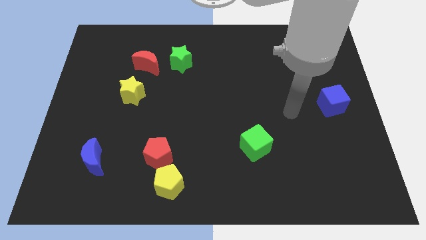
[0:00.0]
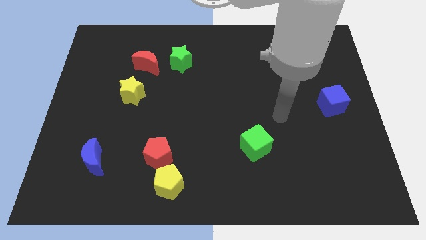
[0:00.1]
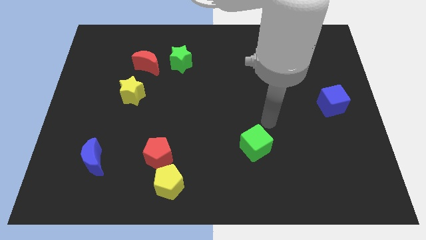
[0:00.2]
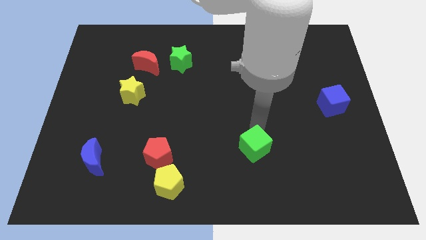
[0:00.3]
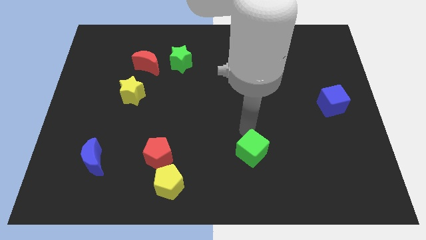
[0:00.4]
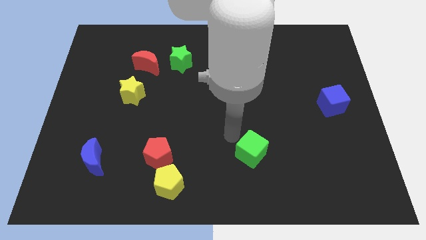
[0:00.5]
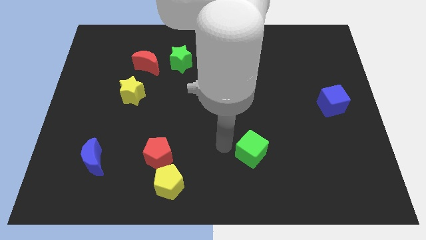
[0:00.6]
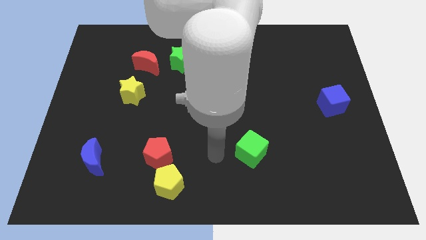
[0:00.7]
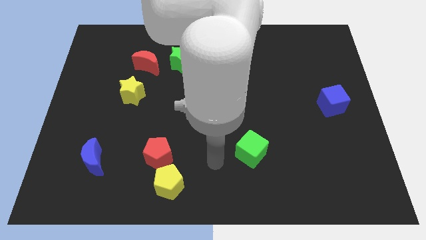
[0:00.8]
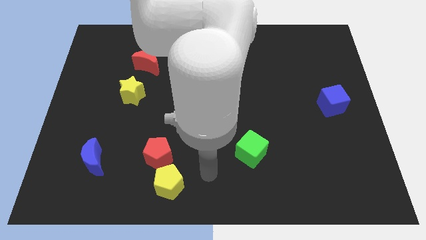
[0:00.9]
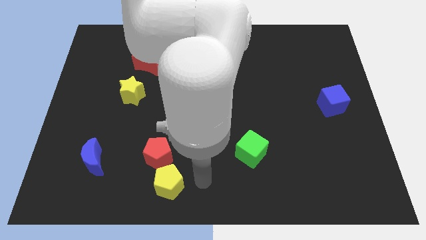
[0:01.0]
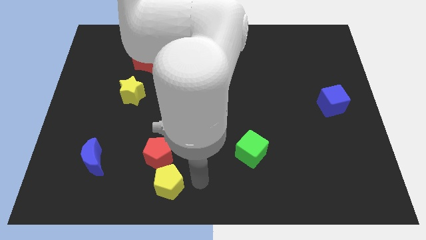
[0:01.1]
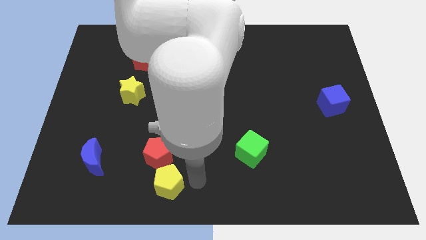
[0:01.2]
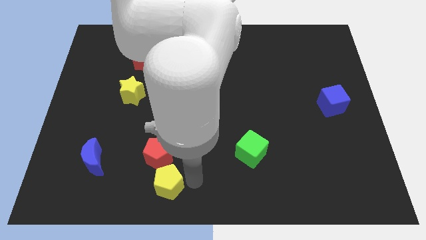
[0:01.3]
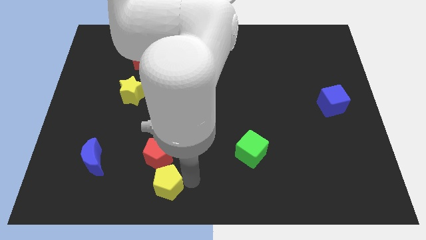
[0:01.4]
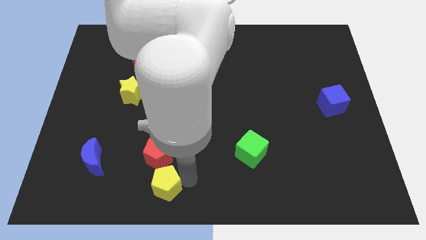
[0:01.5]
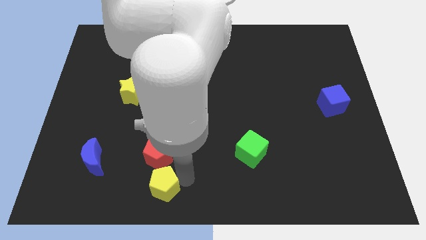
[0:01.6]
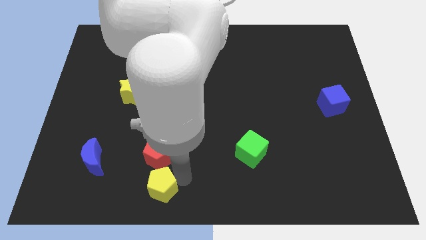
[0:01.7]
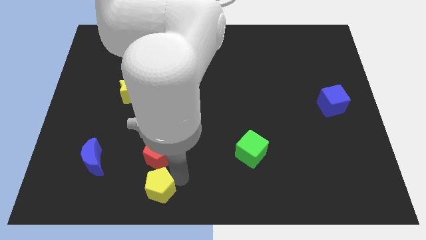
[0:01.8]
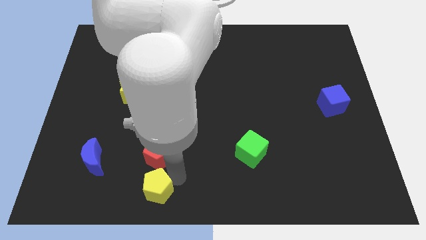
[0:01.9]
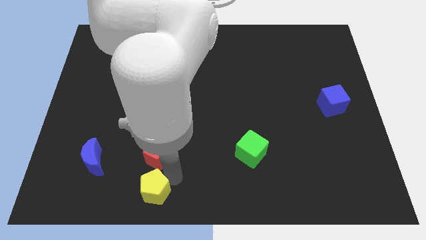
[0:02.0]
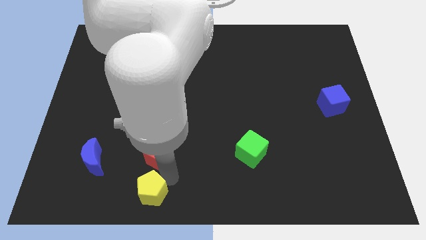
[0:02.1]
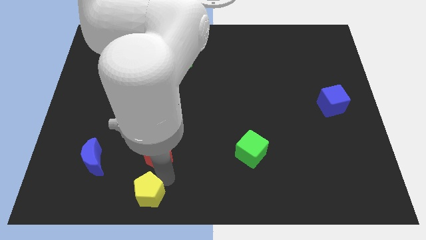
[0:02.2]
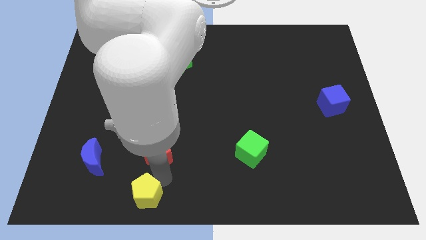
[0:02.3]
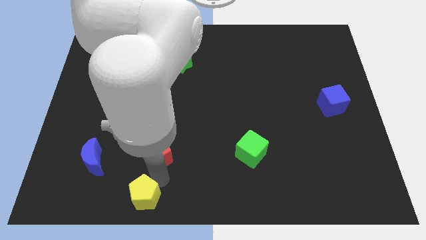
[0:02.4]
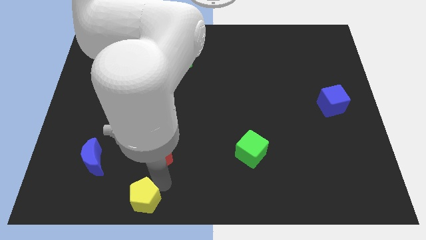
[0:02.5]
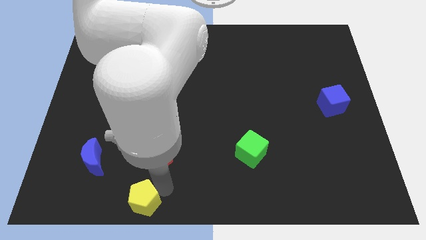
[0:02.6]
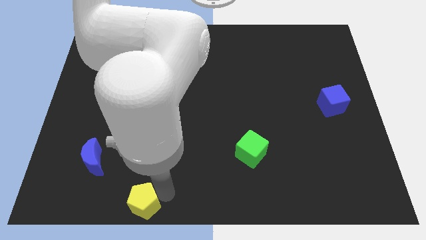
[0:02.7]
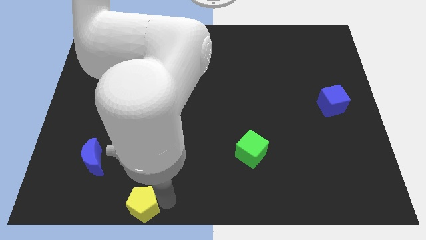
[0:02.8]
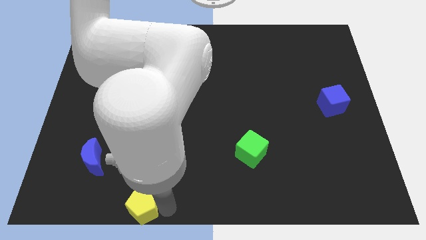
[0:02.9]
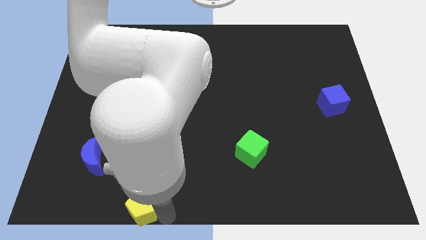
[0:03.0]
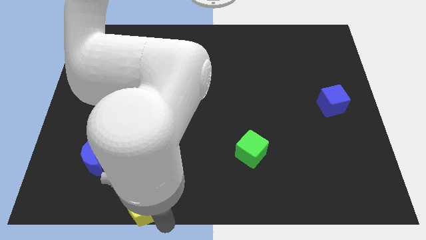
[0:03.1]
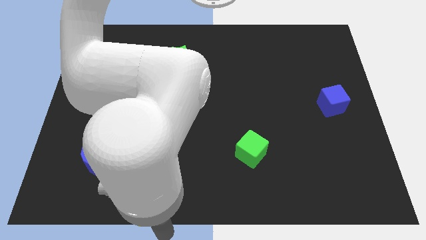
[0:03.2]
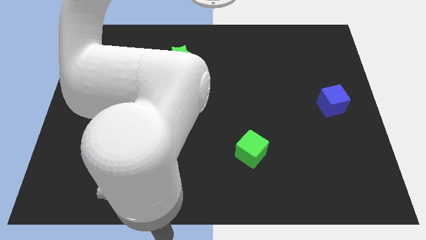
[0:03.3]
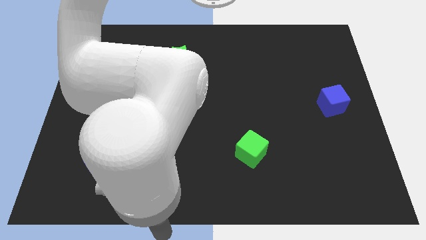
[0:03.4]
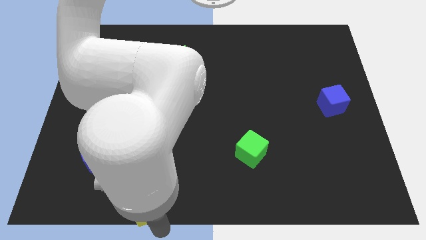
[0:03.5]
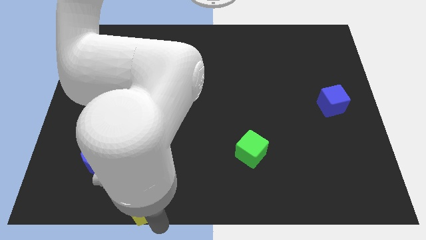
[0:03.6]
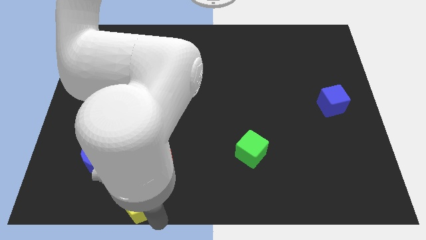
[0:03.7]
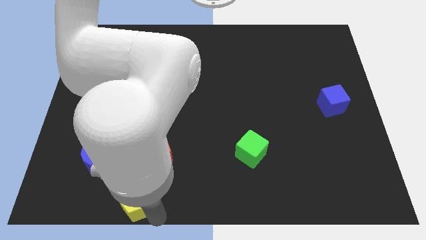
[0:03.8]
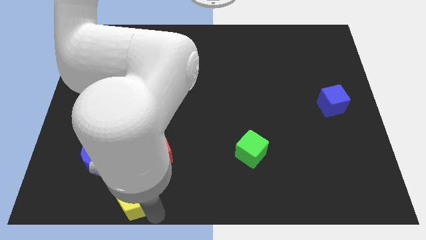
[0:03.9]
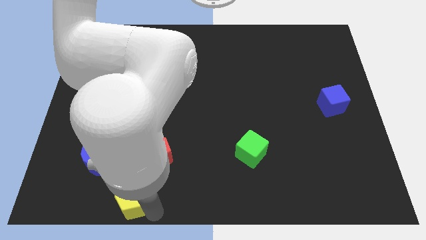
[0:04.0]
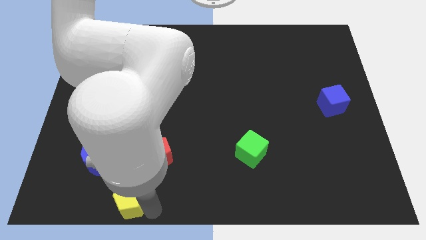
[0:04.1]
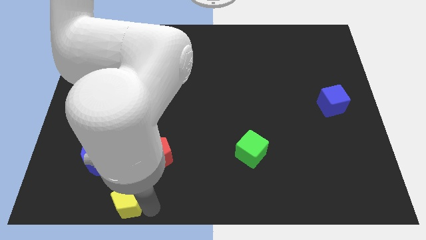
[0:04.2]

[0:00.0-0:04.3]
push the yellow pentagon a little to the left

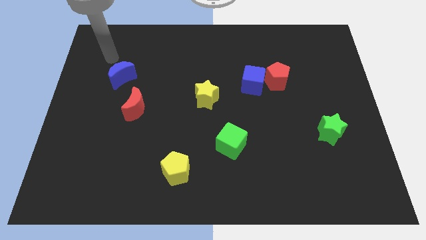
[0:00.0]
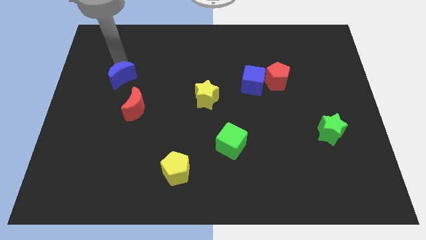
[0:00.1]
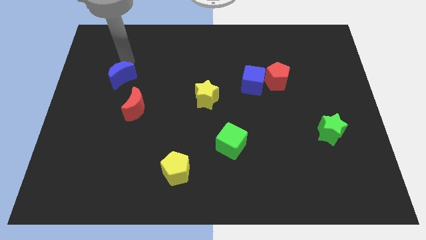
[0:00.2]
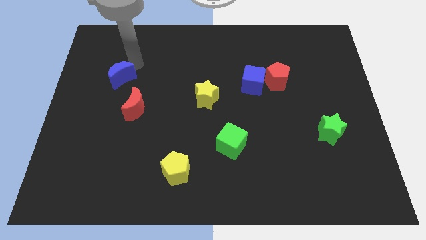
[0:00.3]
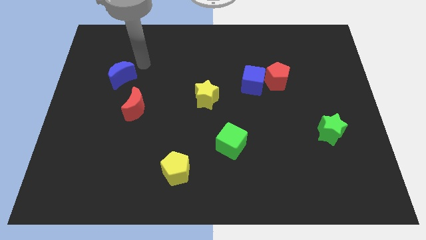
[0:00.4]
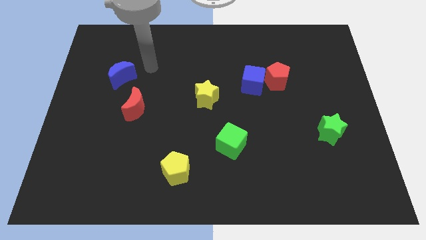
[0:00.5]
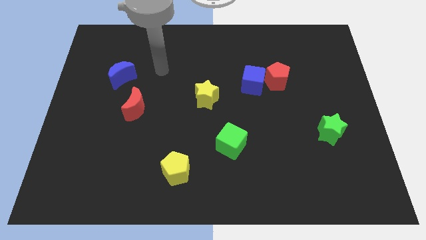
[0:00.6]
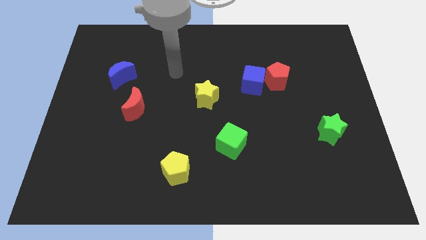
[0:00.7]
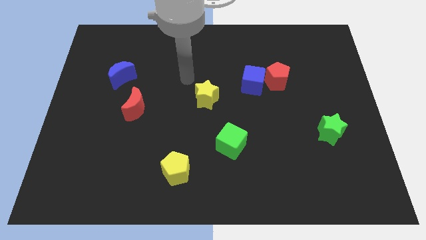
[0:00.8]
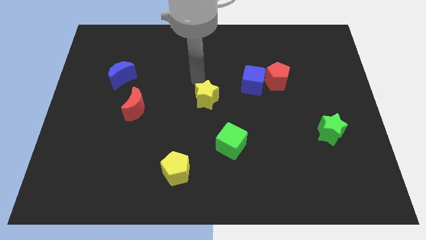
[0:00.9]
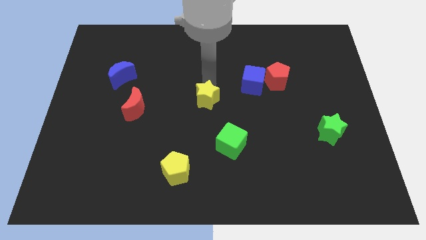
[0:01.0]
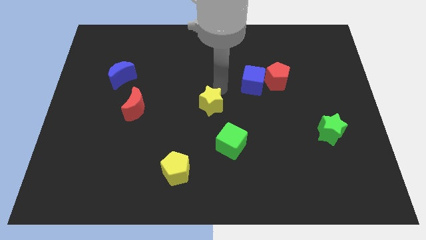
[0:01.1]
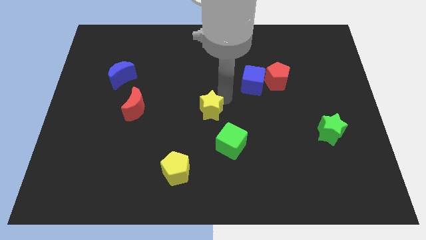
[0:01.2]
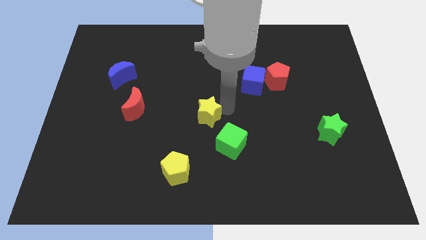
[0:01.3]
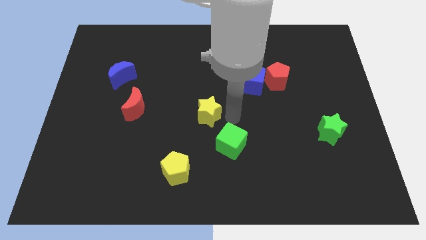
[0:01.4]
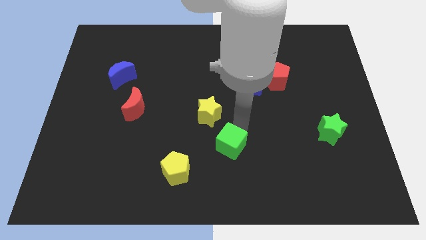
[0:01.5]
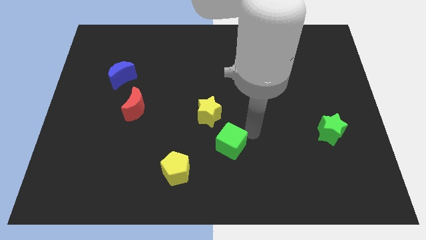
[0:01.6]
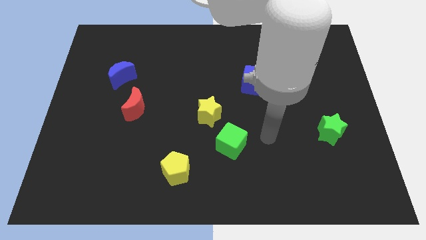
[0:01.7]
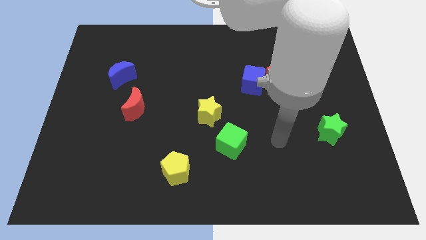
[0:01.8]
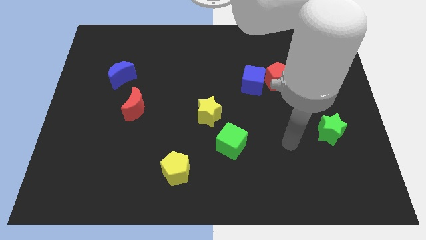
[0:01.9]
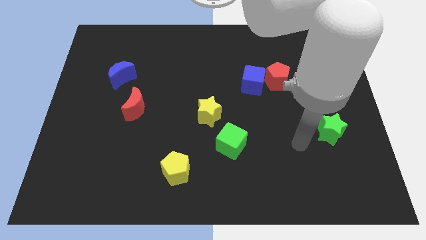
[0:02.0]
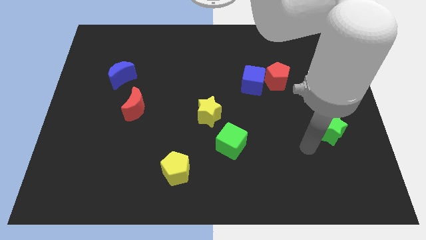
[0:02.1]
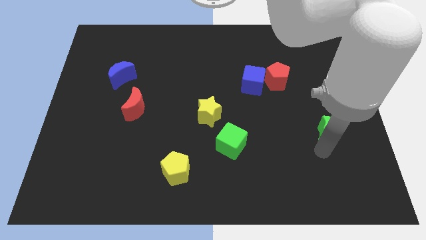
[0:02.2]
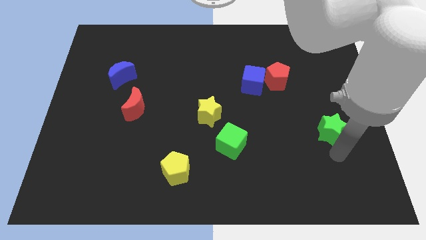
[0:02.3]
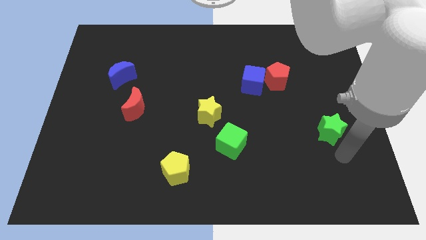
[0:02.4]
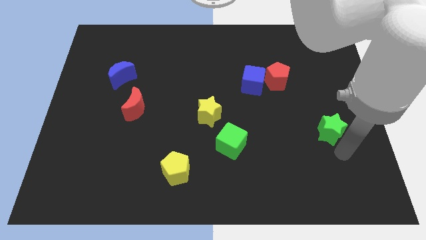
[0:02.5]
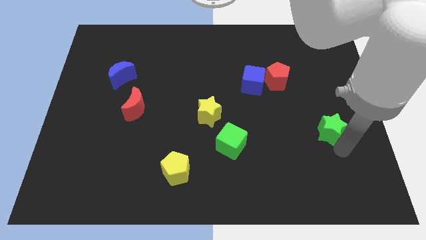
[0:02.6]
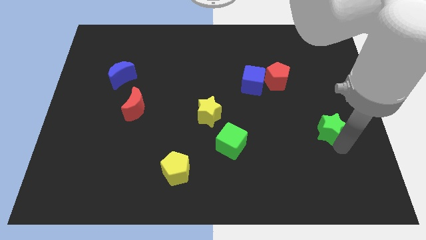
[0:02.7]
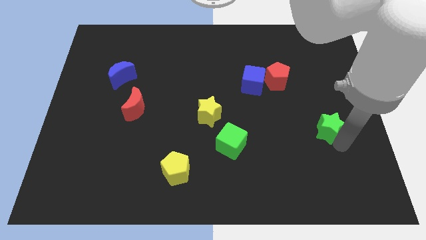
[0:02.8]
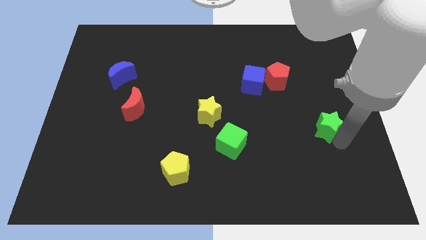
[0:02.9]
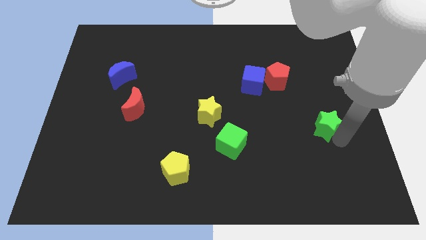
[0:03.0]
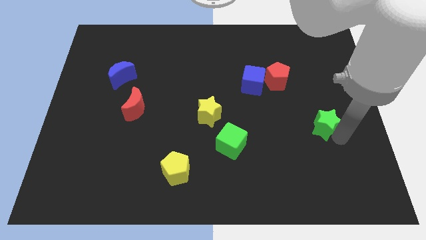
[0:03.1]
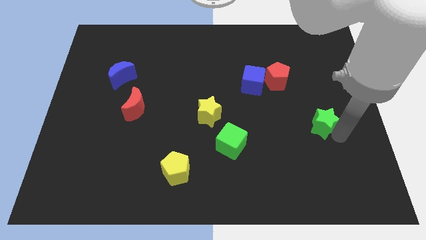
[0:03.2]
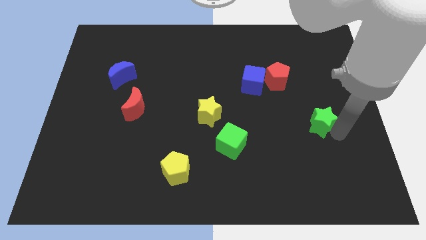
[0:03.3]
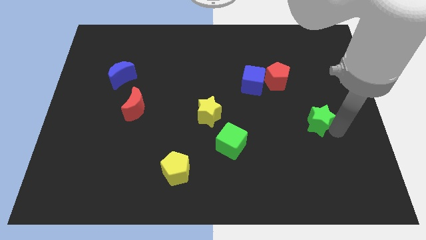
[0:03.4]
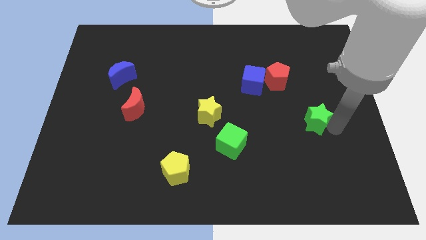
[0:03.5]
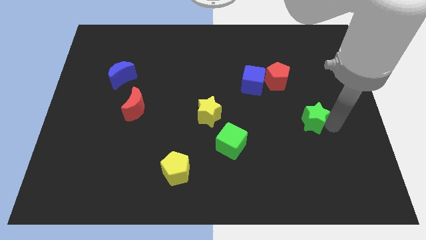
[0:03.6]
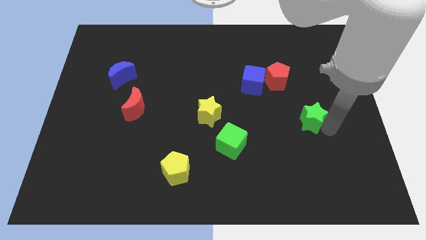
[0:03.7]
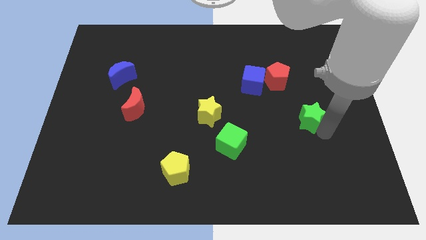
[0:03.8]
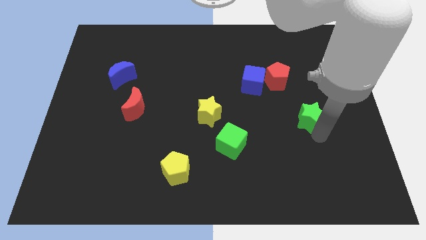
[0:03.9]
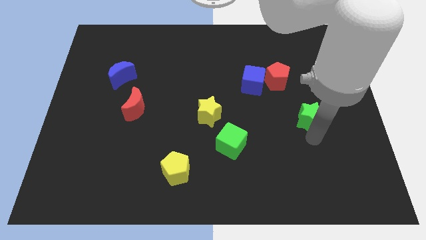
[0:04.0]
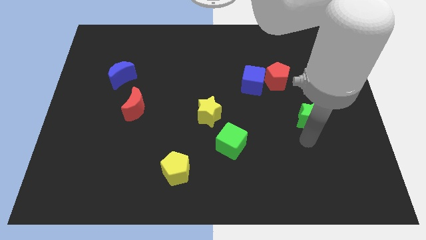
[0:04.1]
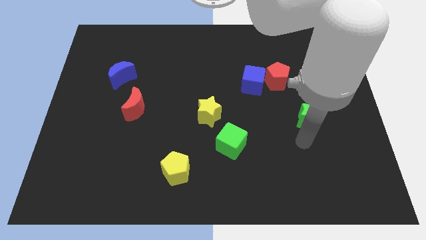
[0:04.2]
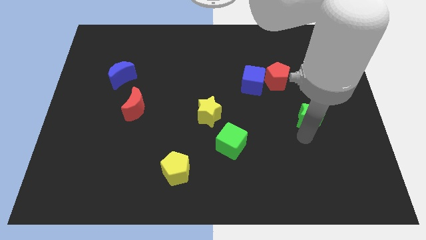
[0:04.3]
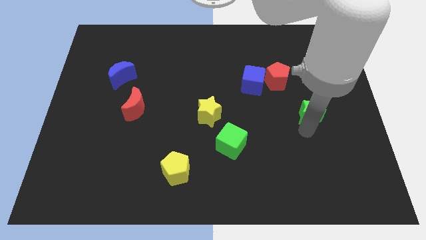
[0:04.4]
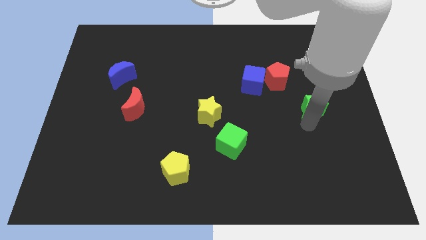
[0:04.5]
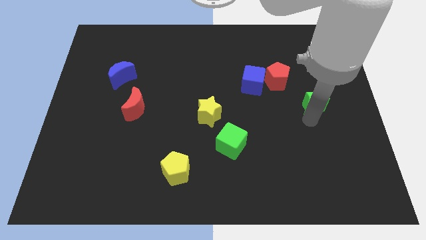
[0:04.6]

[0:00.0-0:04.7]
push the green star upwards a bit
